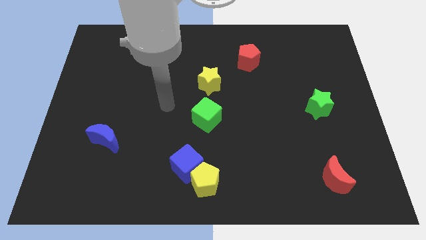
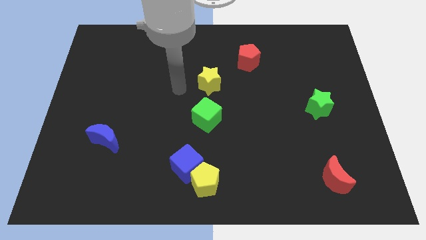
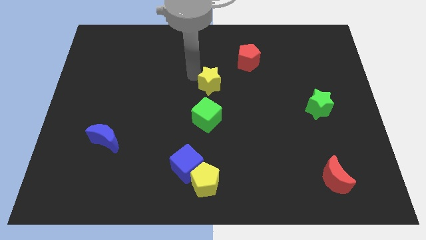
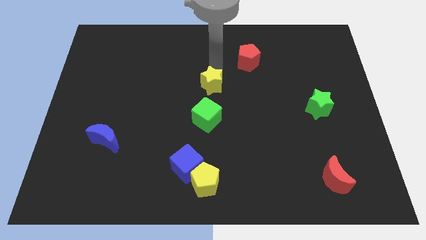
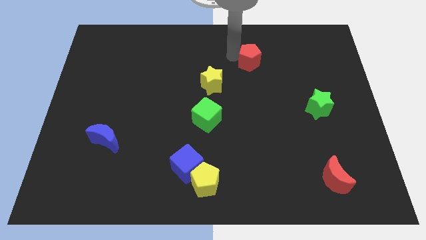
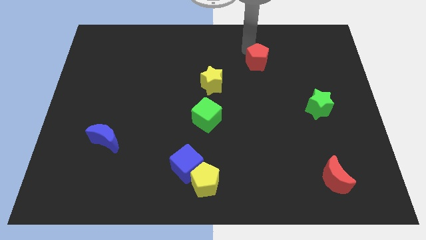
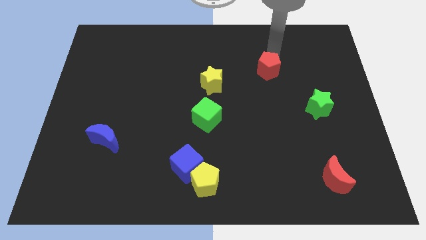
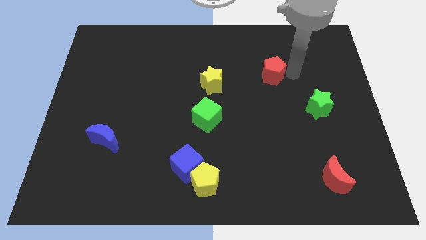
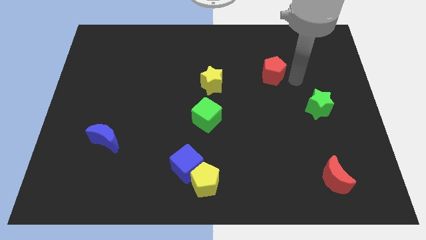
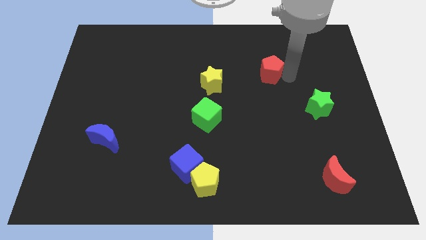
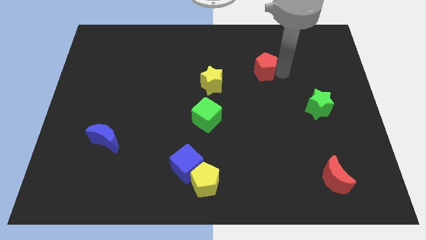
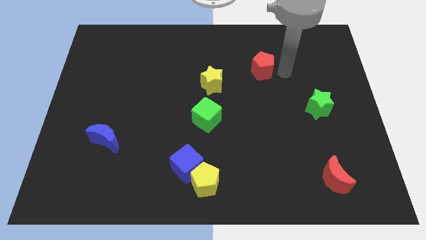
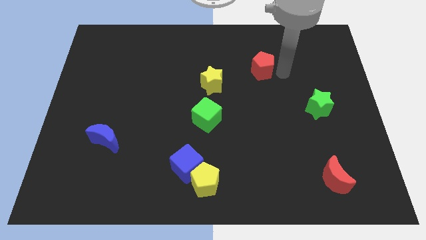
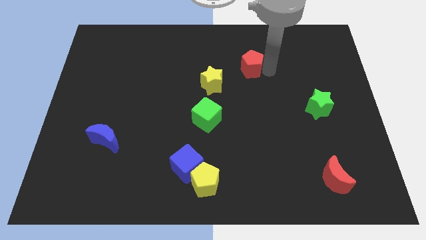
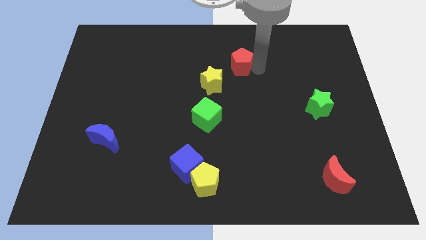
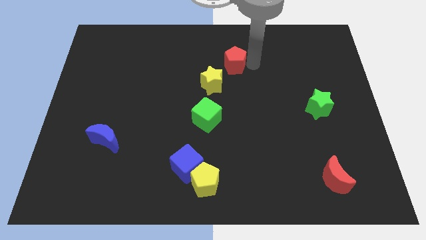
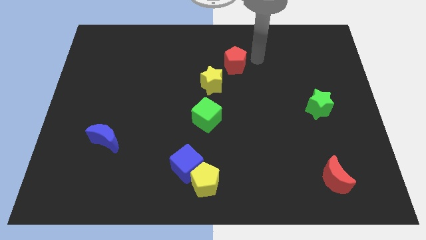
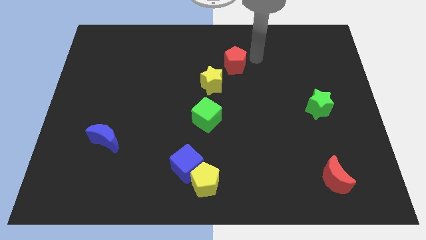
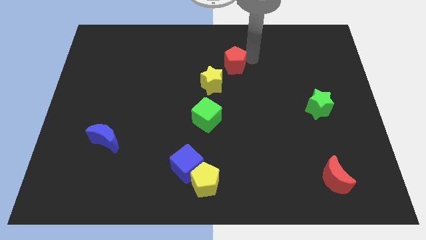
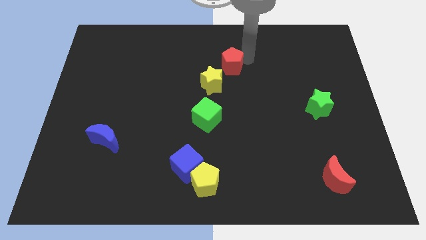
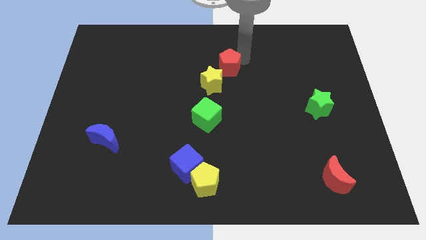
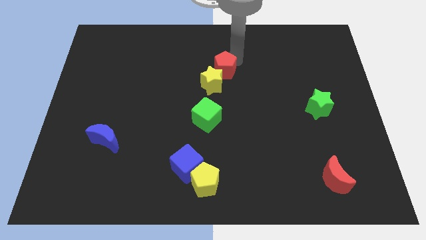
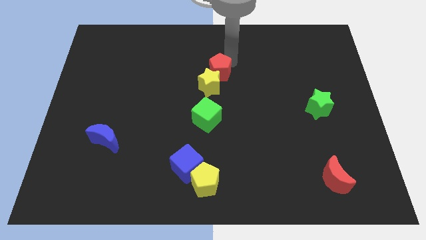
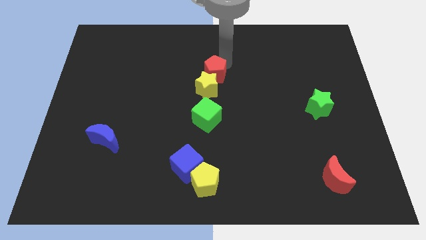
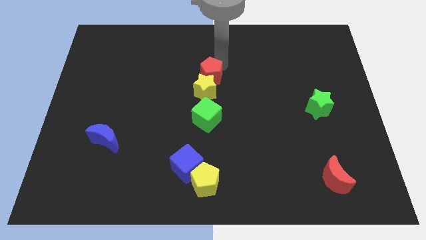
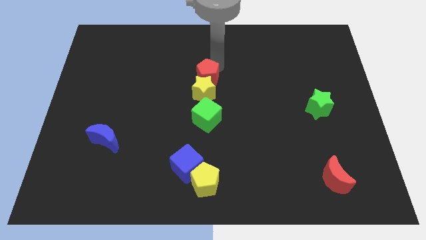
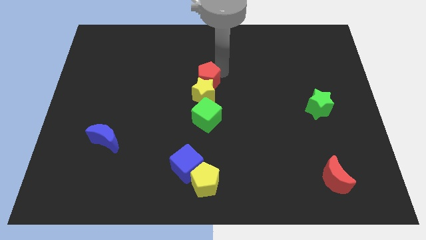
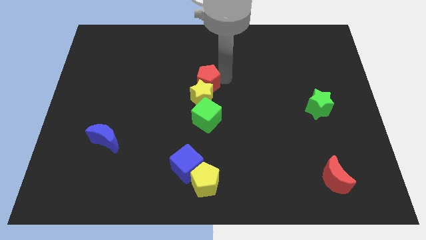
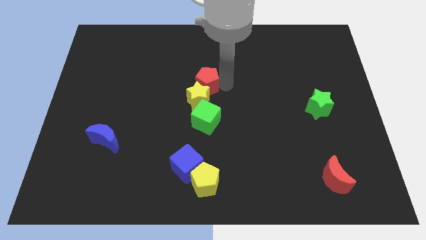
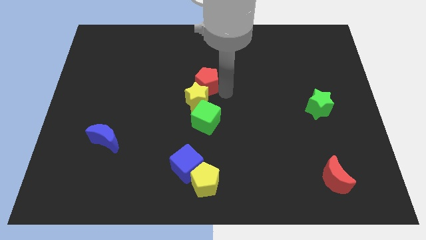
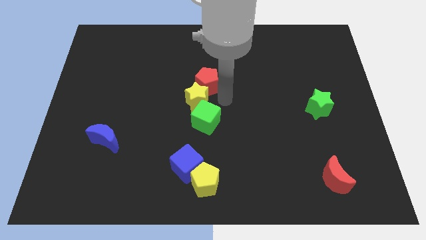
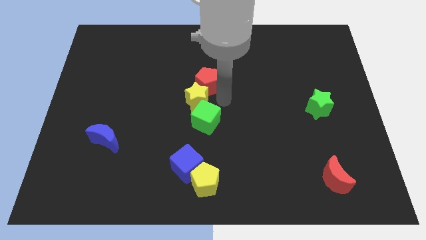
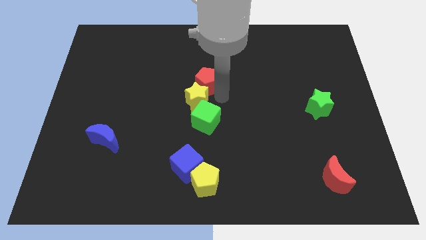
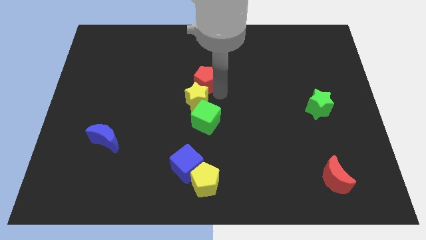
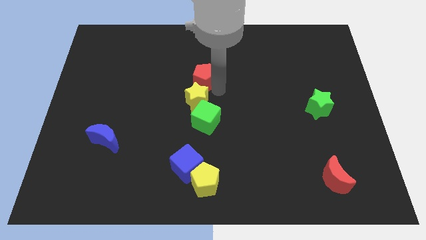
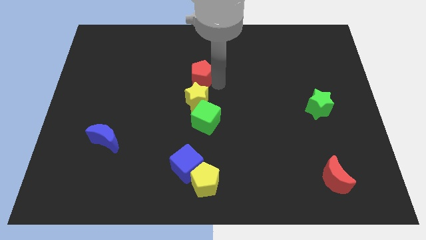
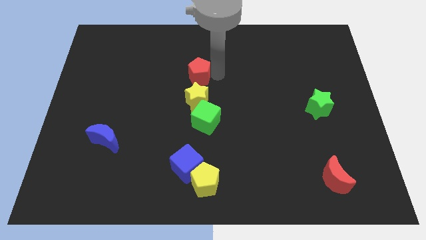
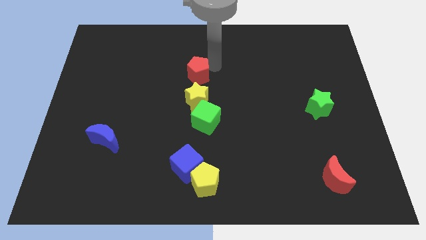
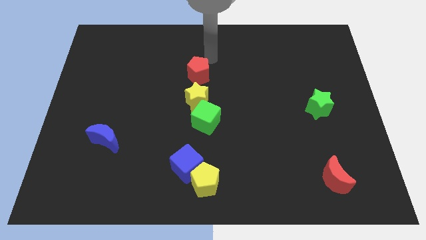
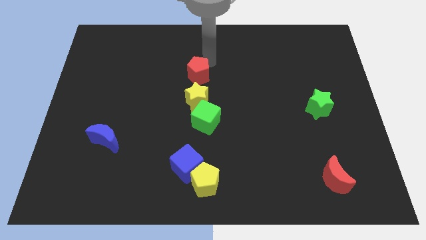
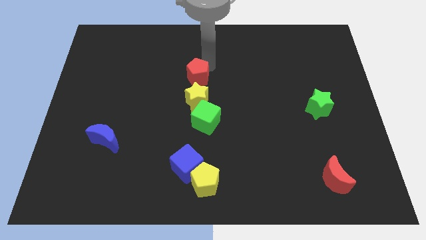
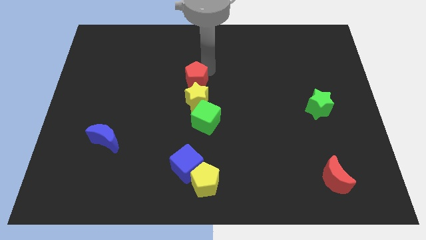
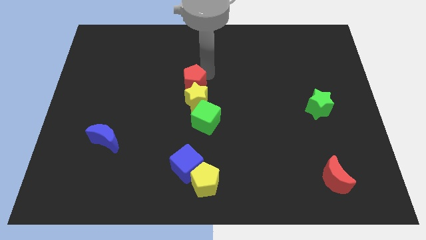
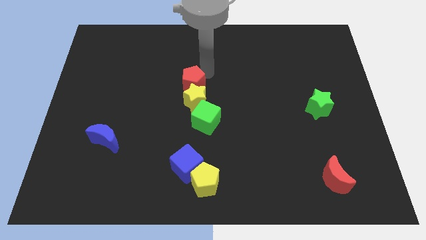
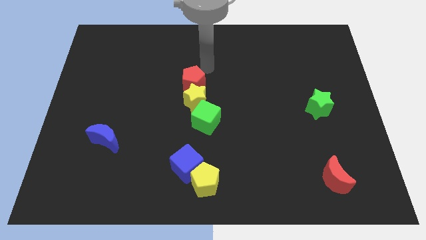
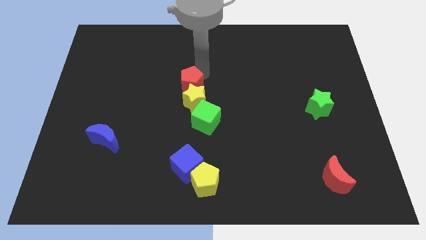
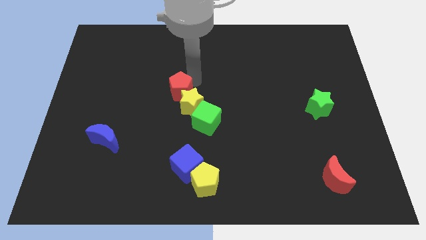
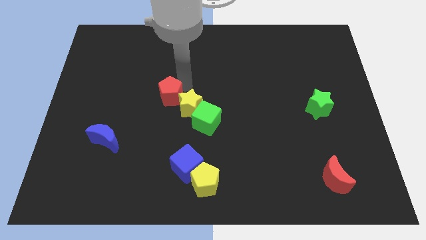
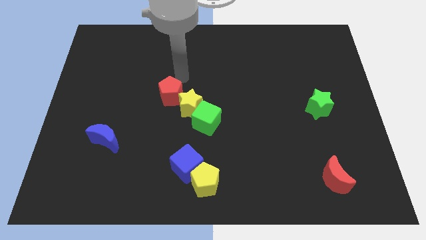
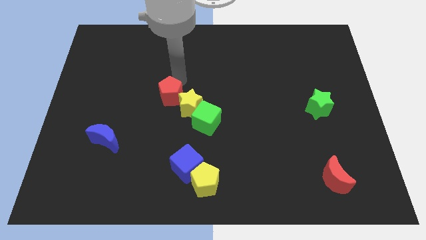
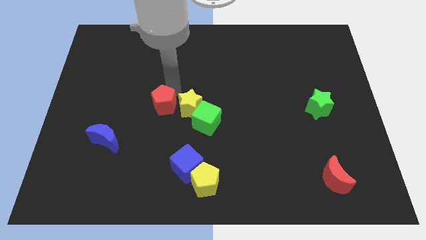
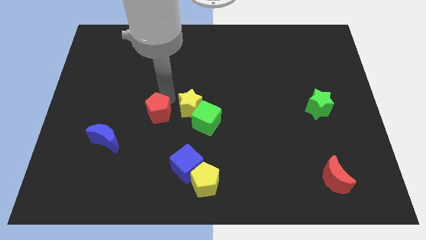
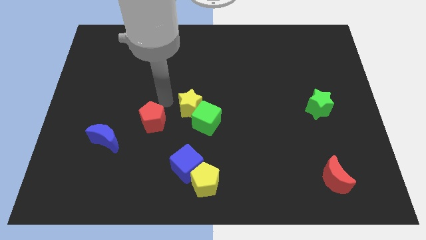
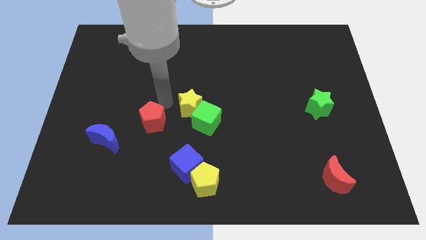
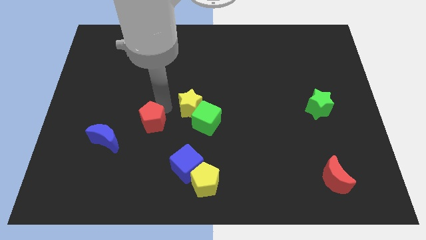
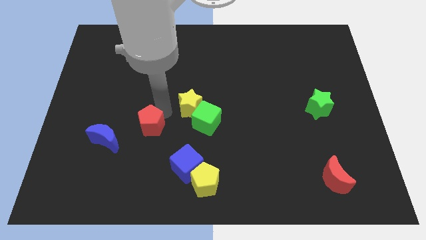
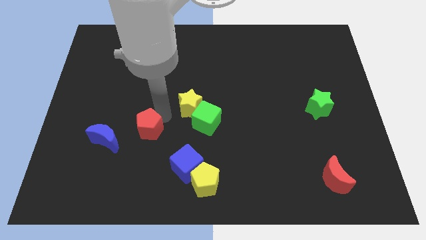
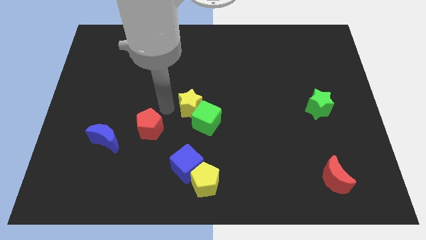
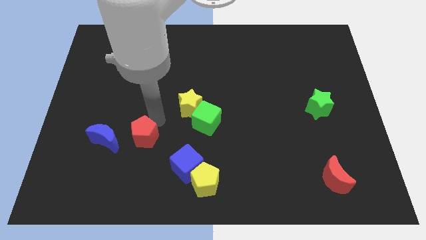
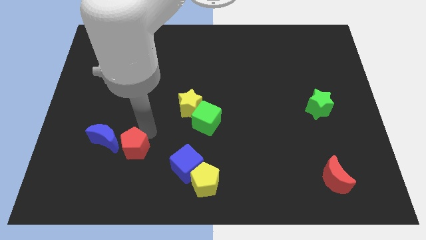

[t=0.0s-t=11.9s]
push the red pentagon diagonally down and to the right of the blue moon

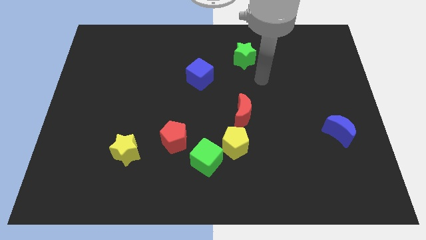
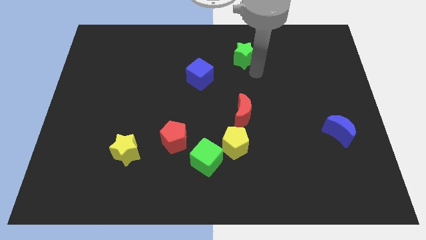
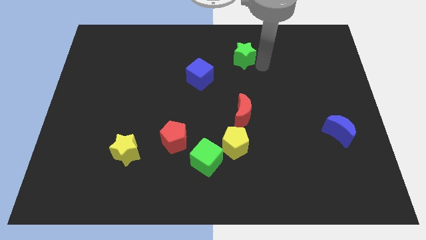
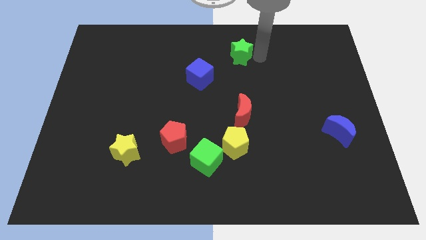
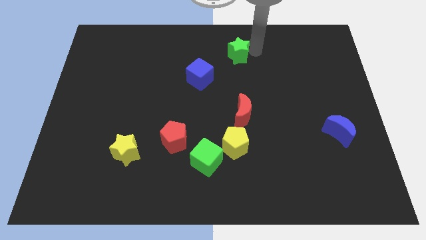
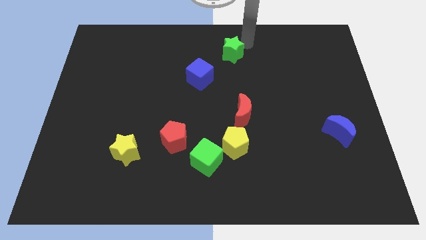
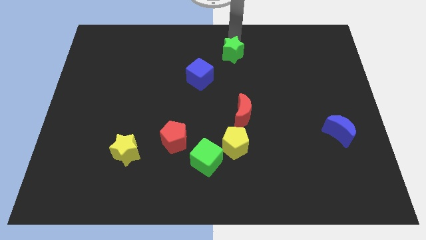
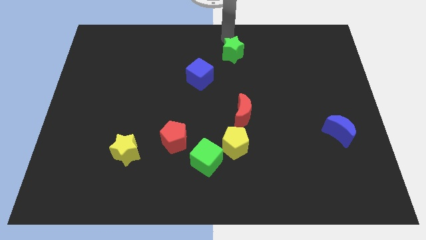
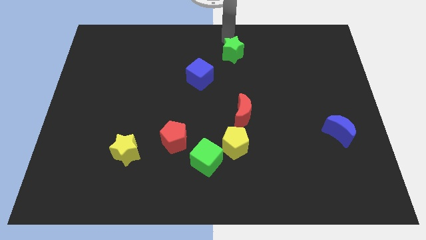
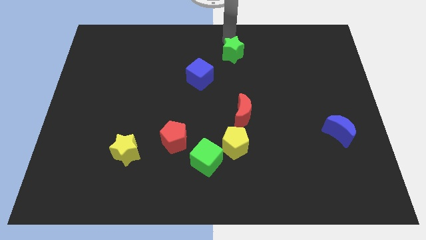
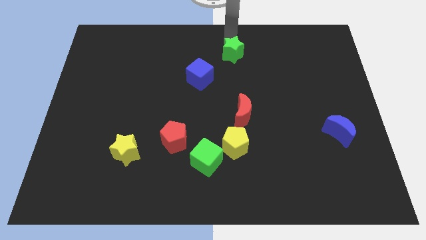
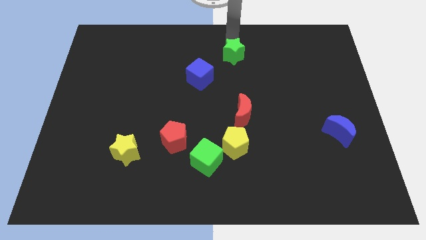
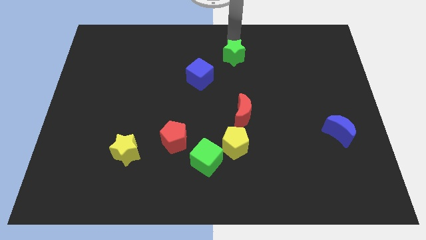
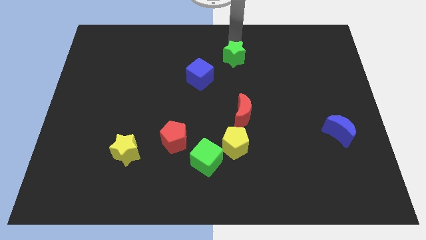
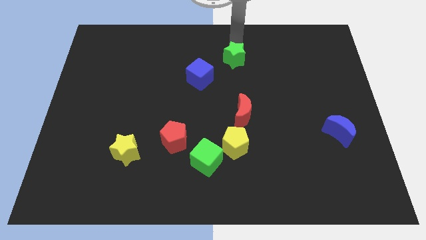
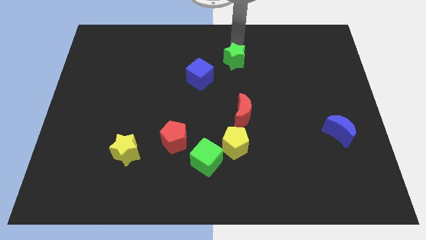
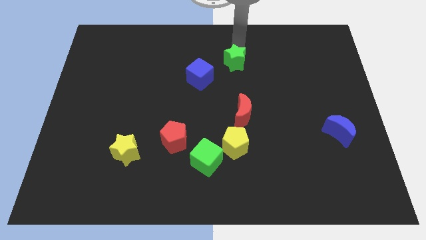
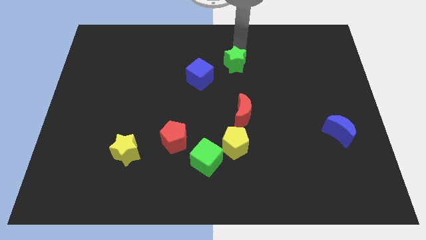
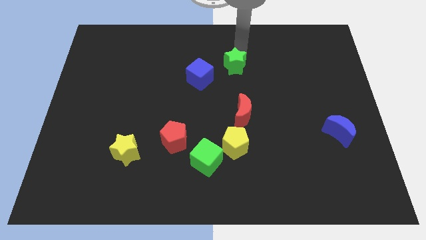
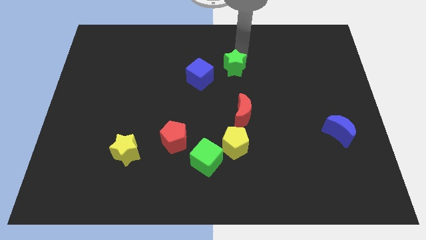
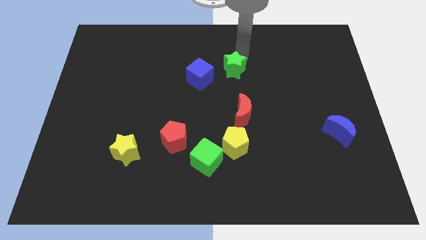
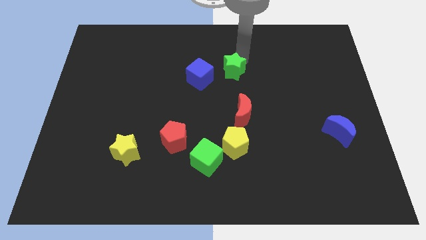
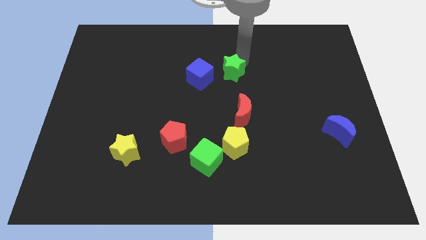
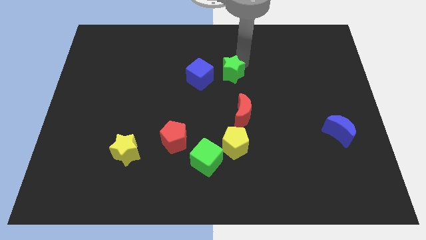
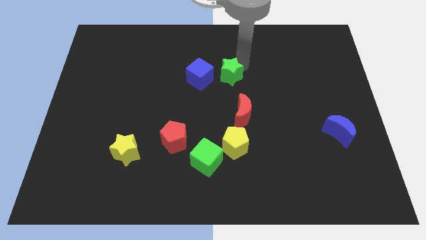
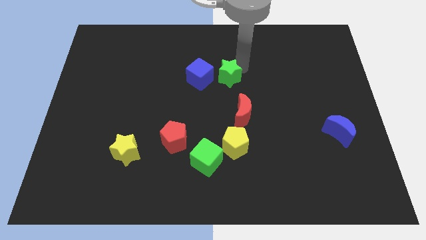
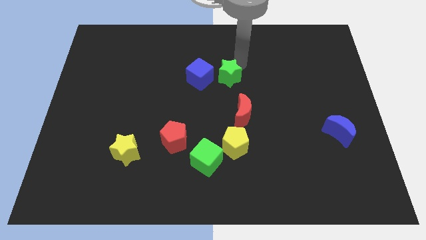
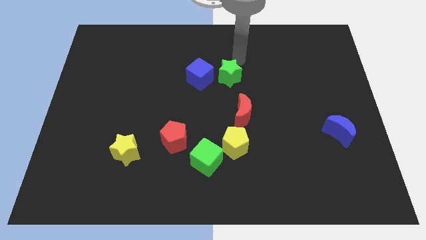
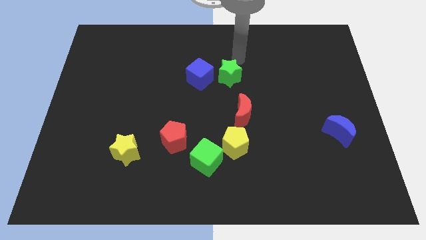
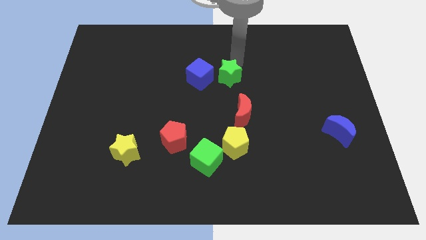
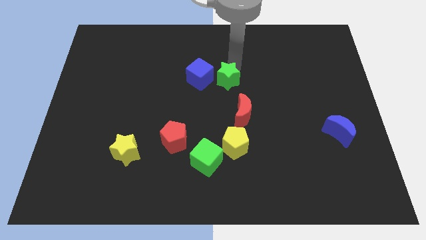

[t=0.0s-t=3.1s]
push the green star to the bottom right side of the blue cube
